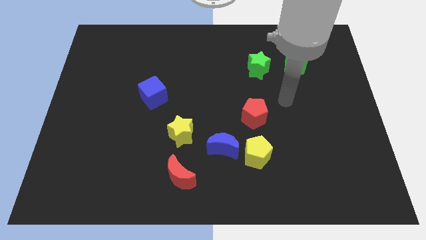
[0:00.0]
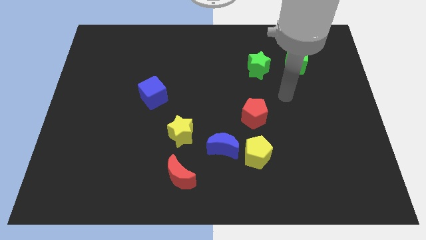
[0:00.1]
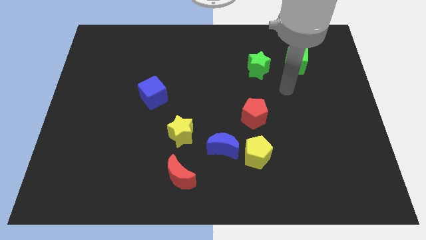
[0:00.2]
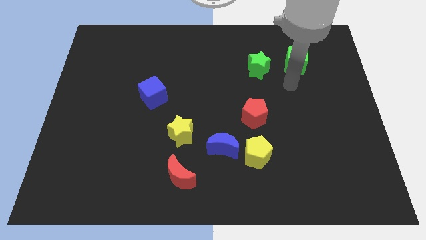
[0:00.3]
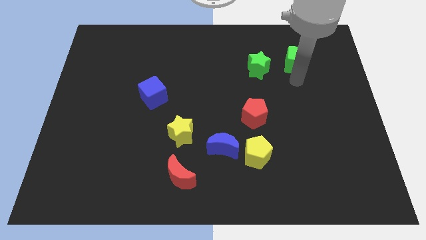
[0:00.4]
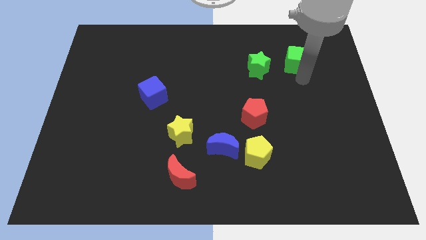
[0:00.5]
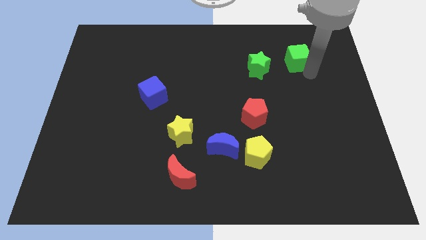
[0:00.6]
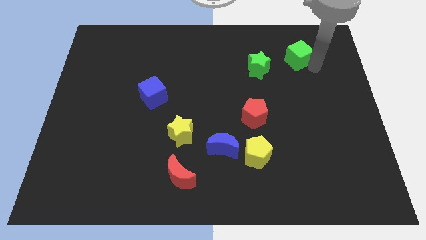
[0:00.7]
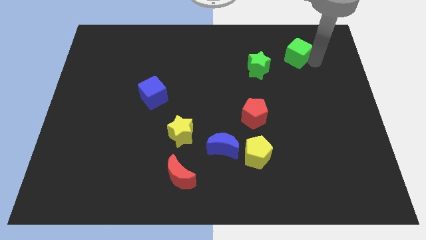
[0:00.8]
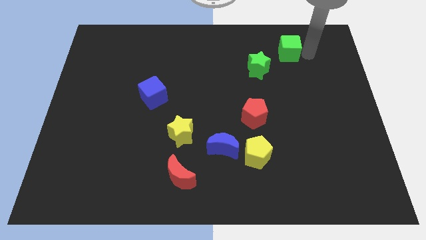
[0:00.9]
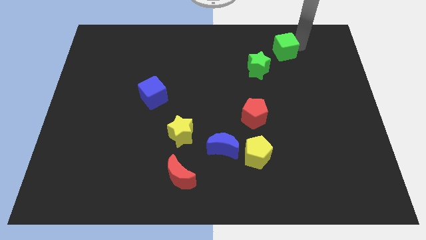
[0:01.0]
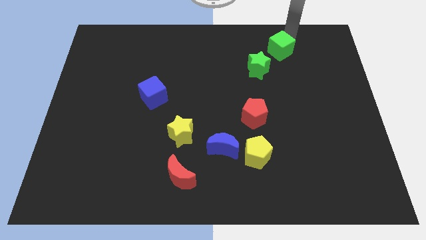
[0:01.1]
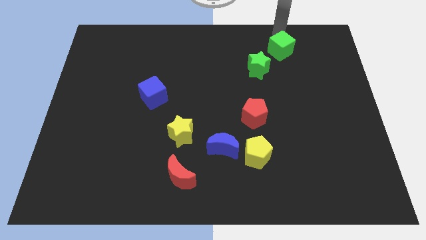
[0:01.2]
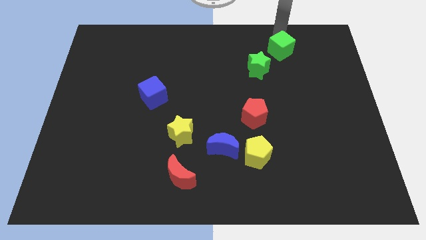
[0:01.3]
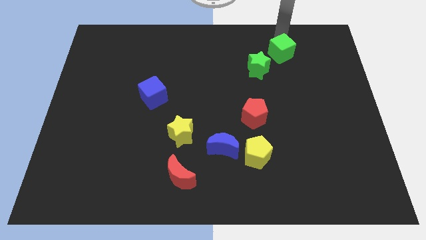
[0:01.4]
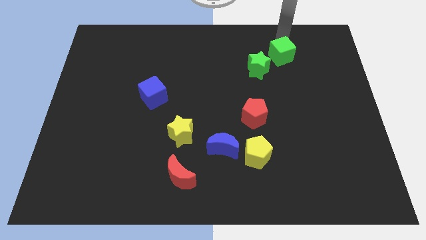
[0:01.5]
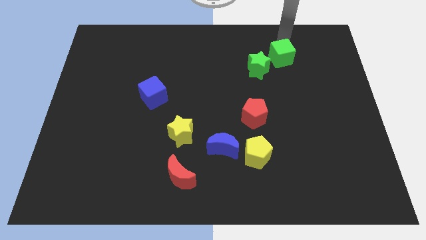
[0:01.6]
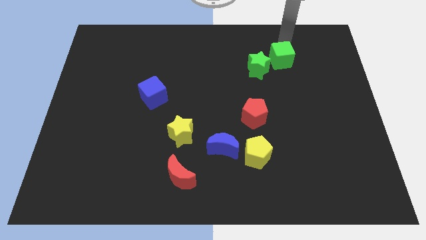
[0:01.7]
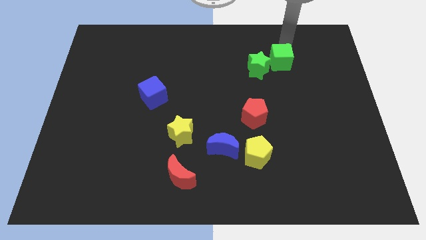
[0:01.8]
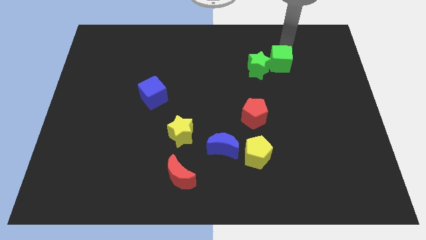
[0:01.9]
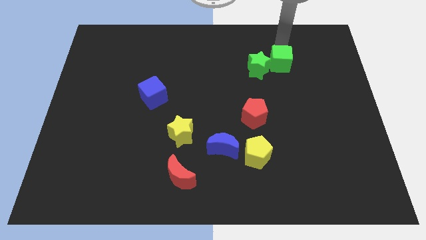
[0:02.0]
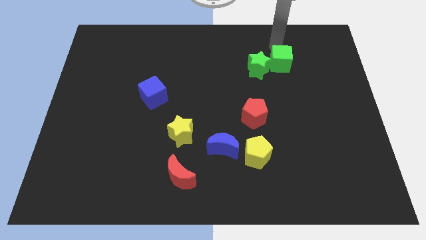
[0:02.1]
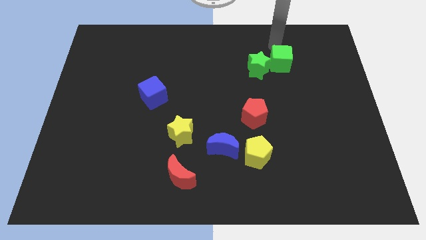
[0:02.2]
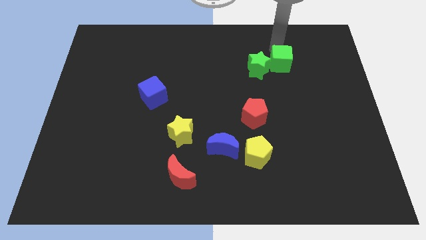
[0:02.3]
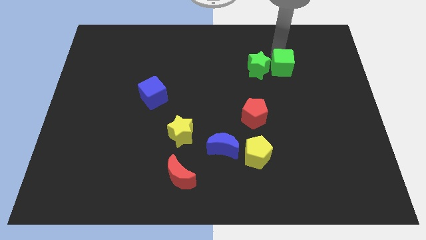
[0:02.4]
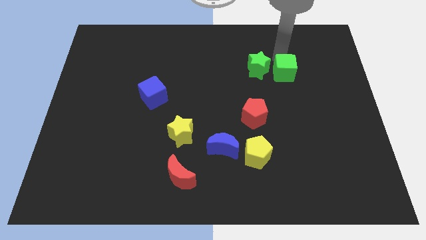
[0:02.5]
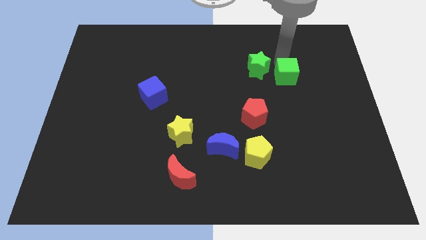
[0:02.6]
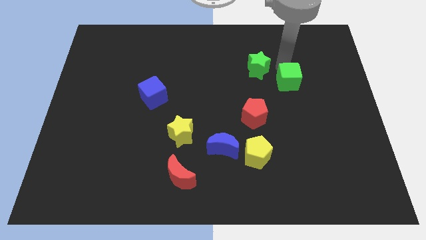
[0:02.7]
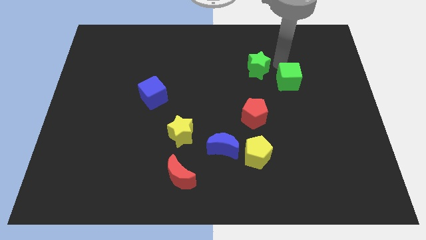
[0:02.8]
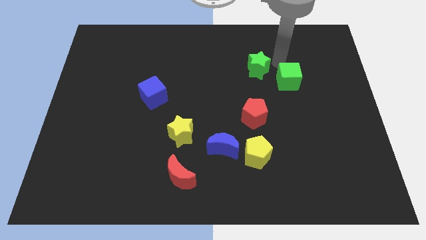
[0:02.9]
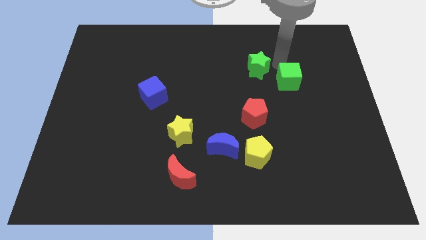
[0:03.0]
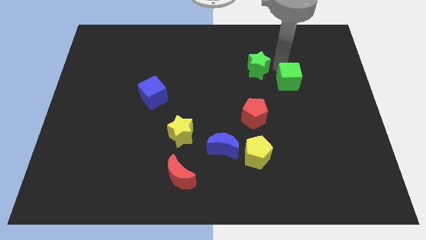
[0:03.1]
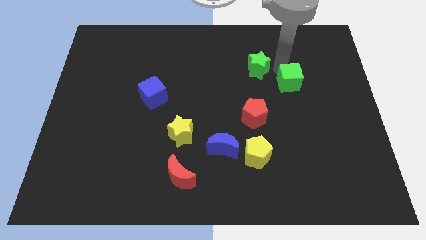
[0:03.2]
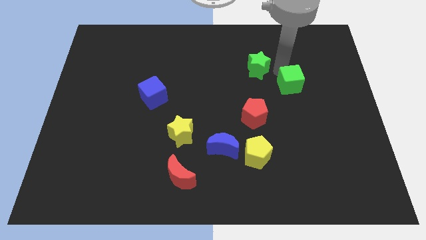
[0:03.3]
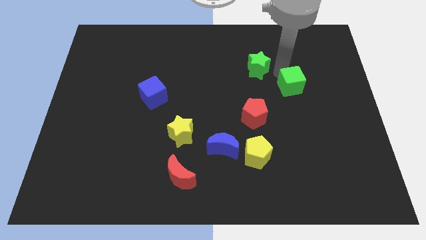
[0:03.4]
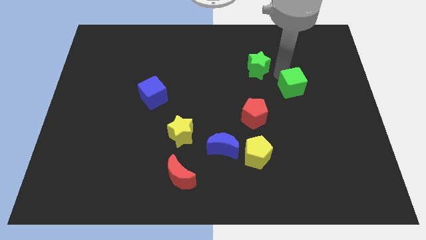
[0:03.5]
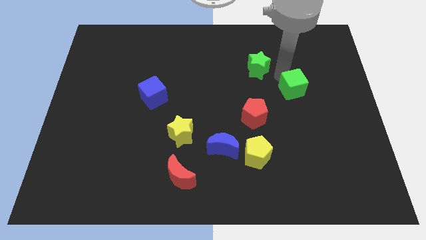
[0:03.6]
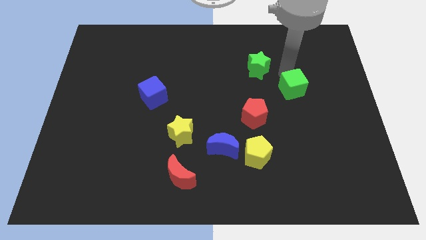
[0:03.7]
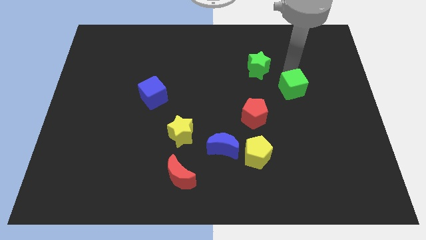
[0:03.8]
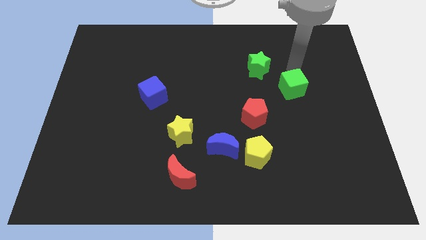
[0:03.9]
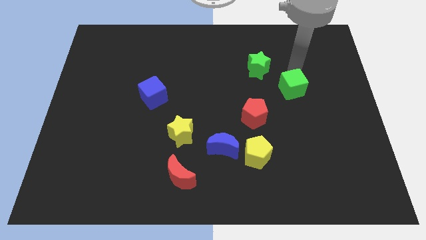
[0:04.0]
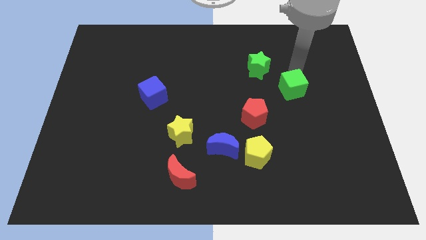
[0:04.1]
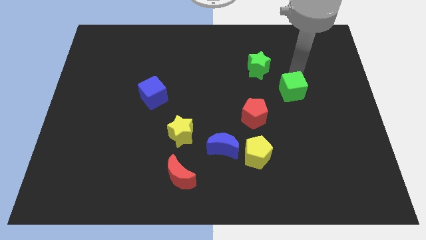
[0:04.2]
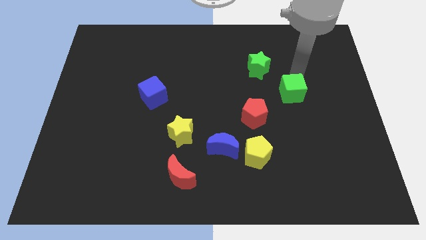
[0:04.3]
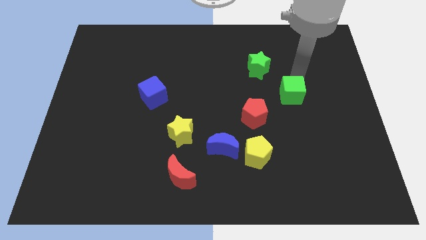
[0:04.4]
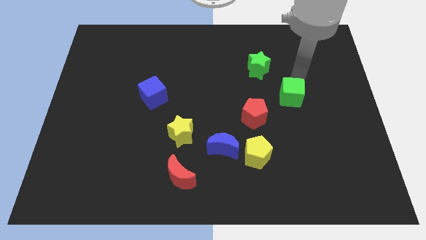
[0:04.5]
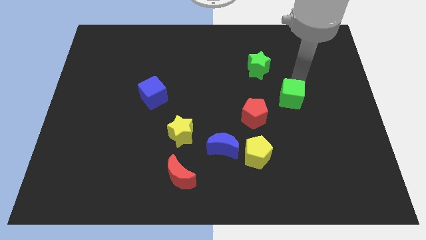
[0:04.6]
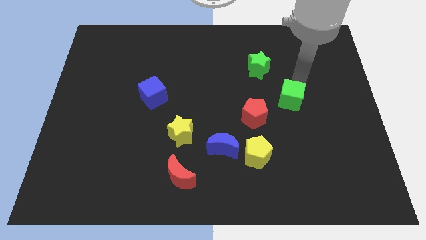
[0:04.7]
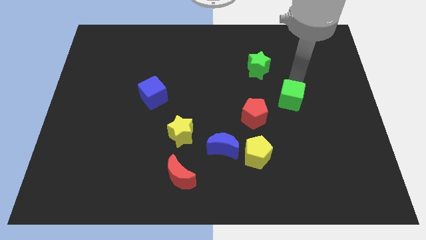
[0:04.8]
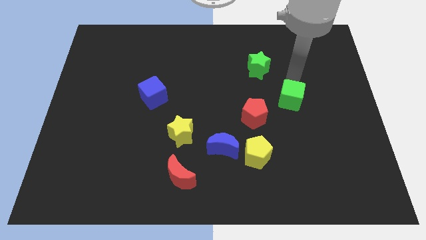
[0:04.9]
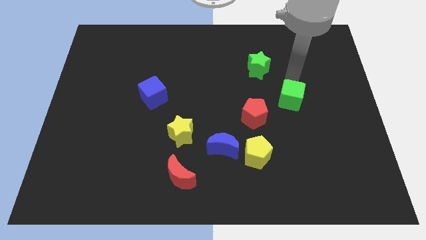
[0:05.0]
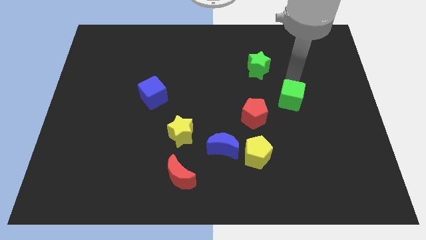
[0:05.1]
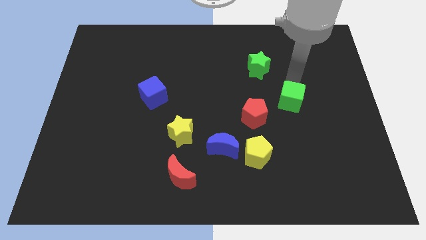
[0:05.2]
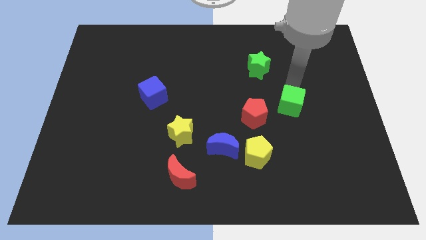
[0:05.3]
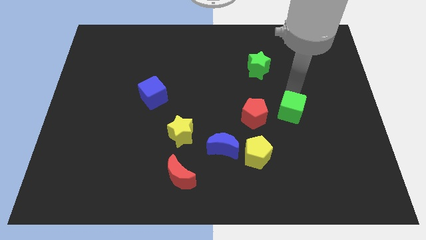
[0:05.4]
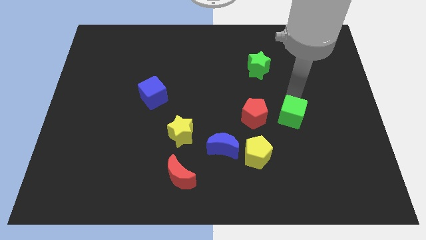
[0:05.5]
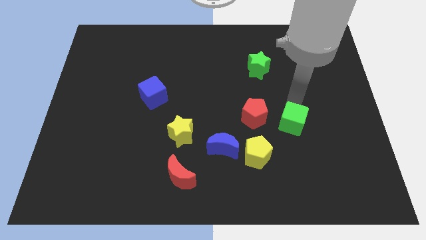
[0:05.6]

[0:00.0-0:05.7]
push the green cube to the bottom right side of the red pentagon

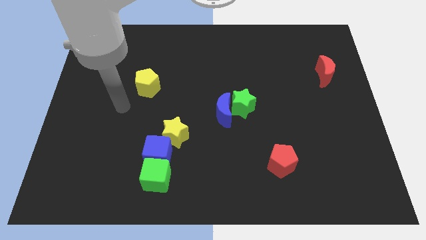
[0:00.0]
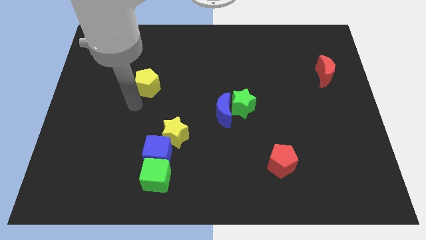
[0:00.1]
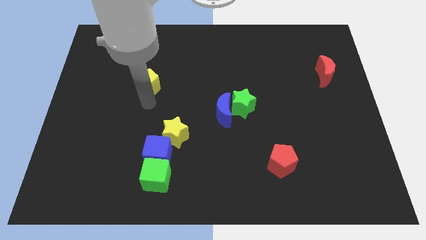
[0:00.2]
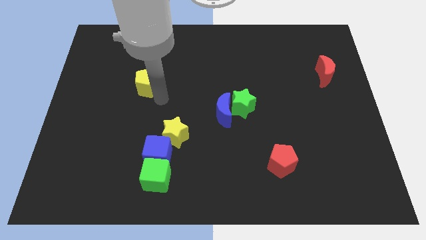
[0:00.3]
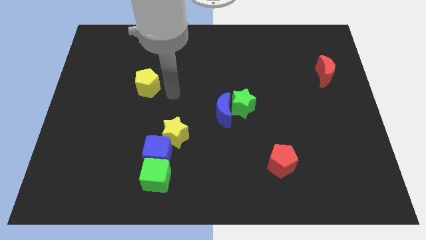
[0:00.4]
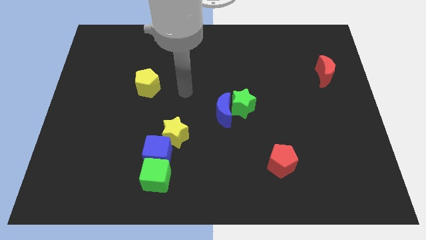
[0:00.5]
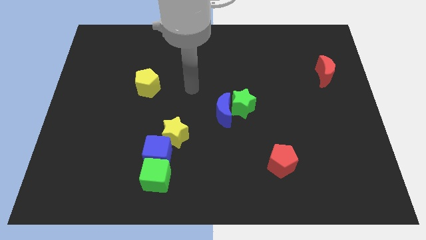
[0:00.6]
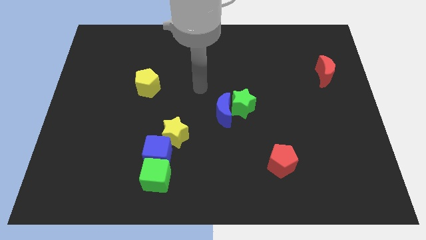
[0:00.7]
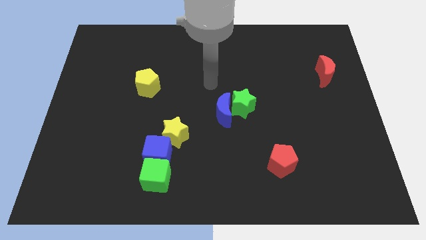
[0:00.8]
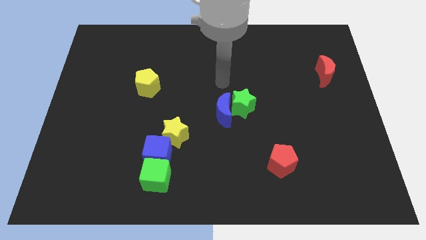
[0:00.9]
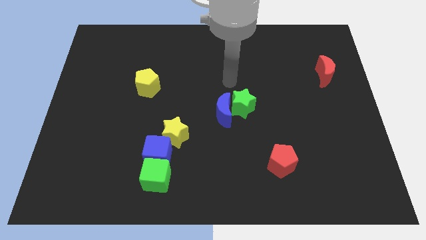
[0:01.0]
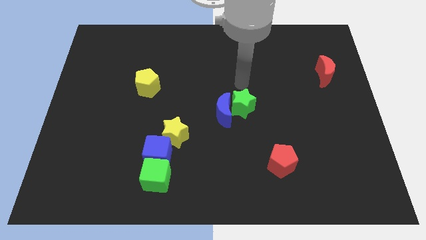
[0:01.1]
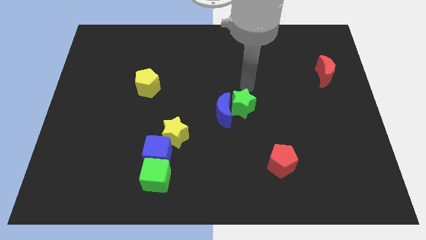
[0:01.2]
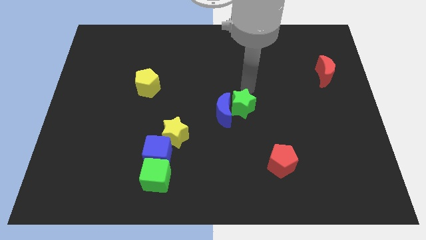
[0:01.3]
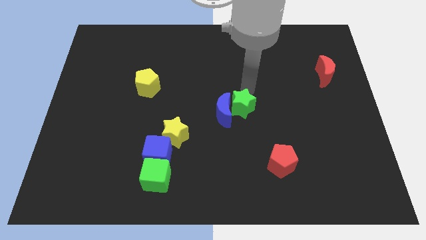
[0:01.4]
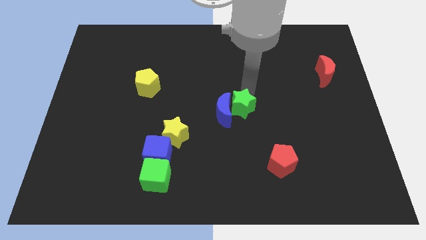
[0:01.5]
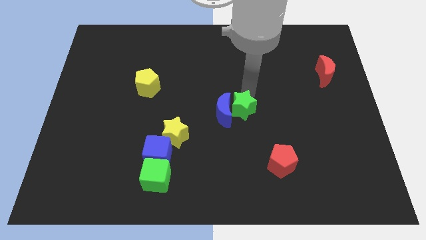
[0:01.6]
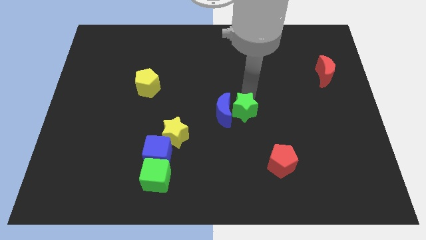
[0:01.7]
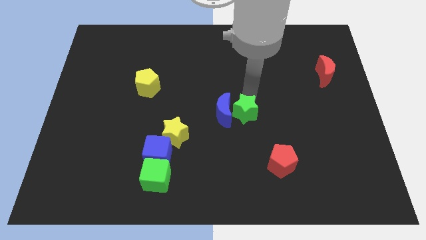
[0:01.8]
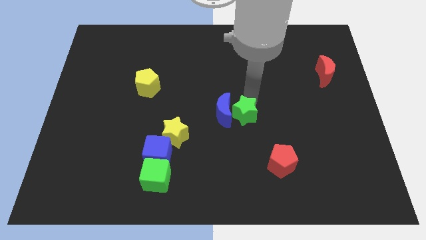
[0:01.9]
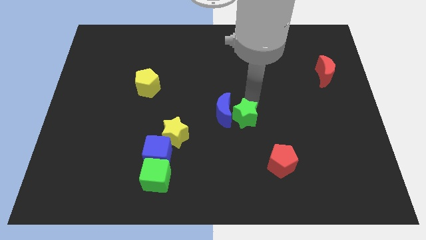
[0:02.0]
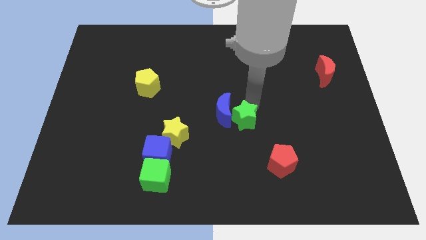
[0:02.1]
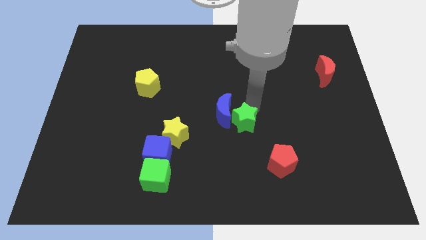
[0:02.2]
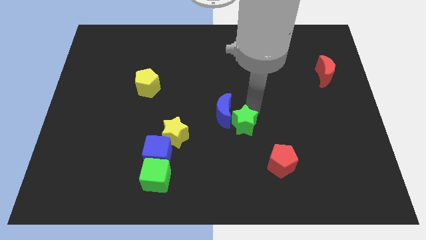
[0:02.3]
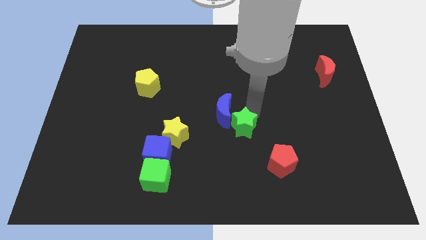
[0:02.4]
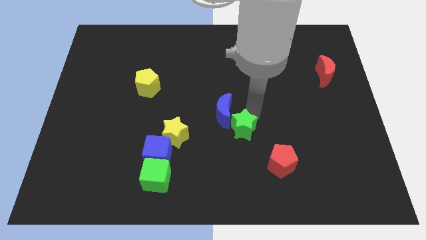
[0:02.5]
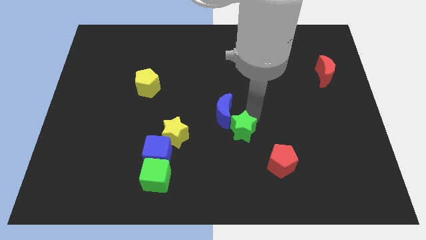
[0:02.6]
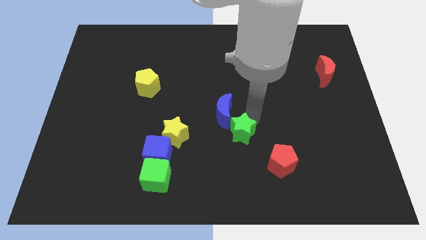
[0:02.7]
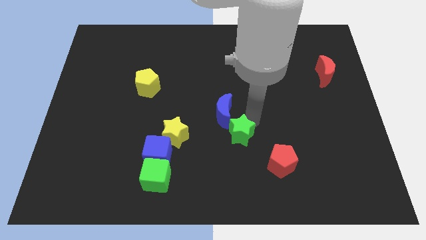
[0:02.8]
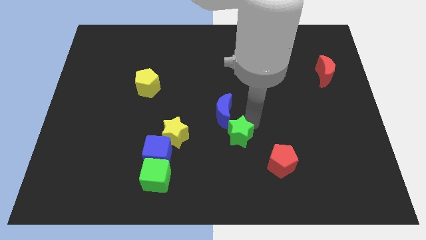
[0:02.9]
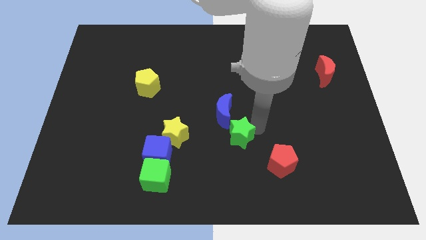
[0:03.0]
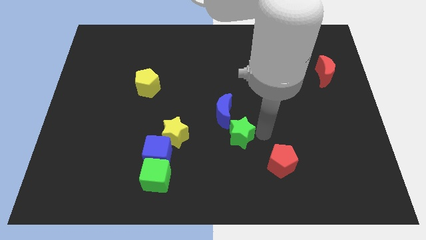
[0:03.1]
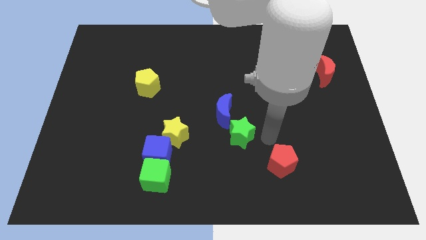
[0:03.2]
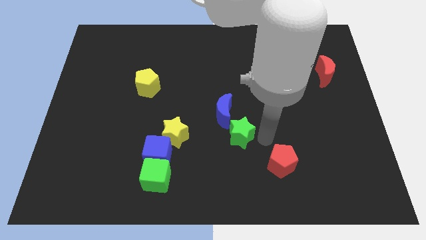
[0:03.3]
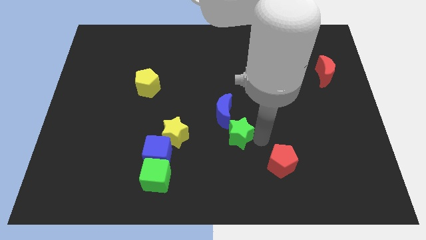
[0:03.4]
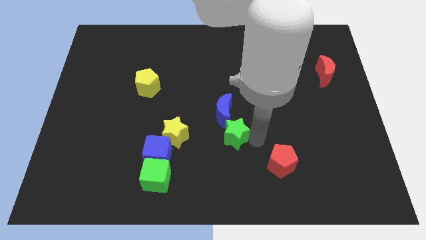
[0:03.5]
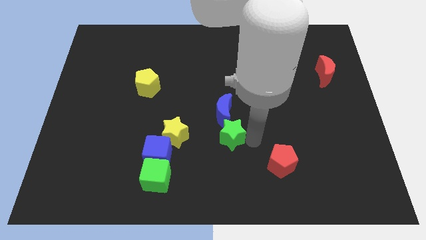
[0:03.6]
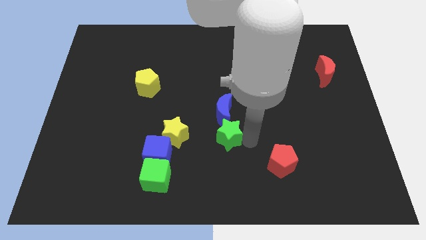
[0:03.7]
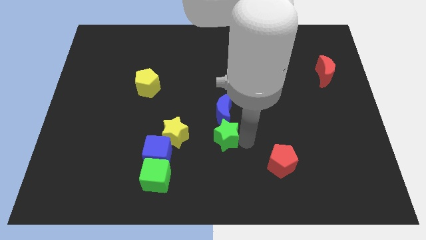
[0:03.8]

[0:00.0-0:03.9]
push the green star to the bottom left of the blue moon
